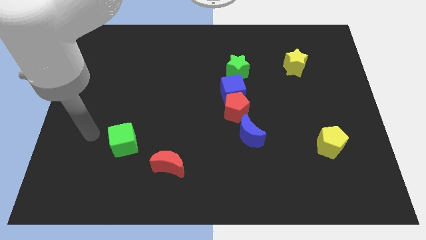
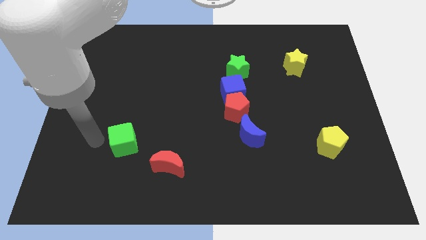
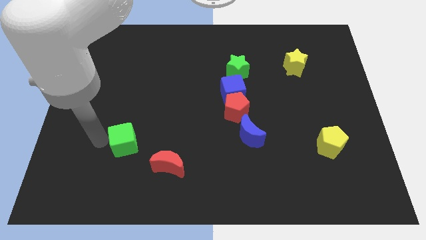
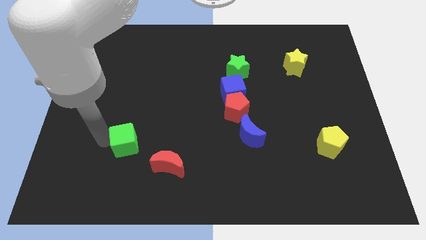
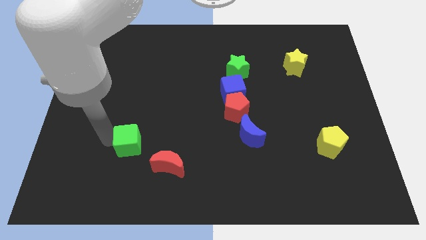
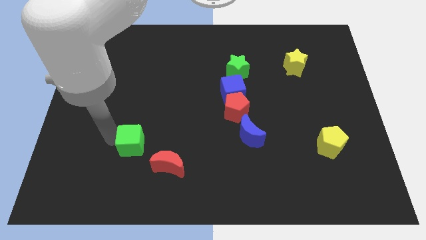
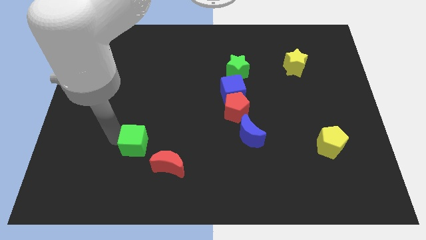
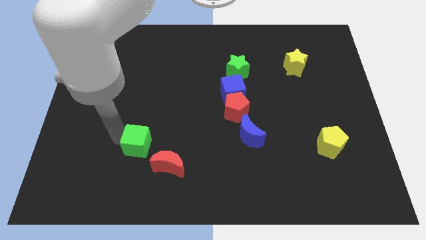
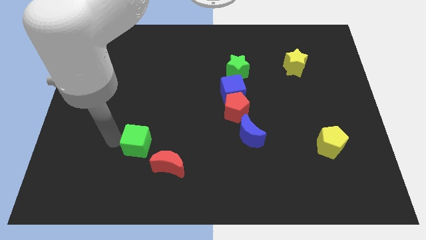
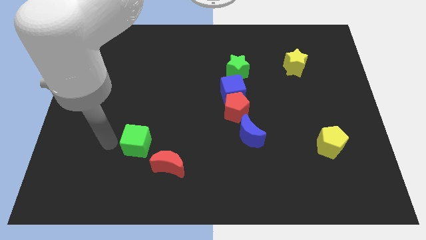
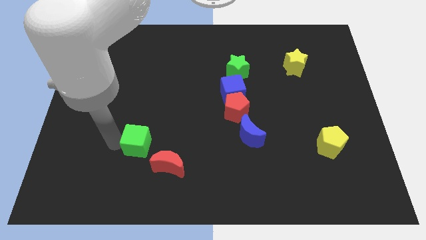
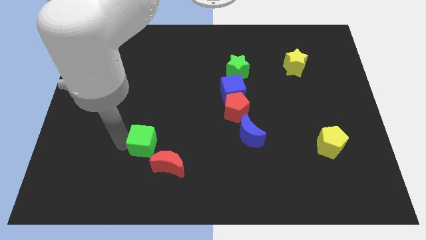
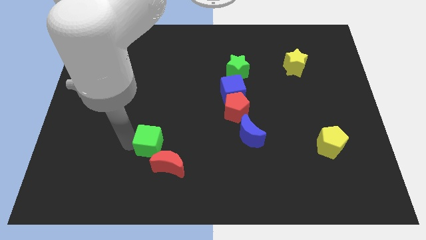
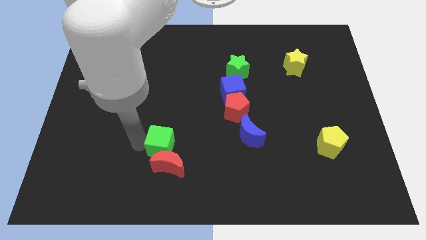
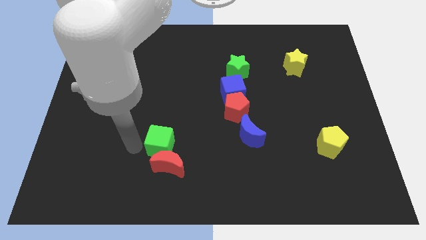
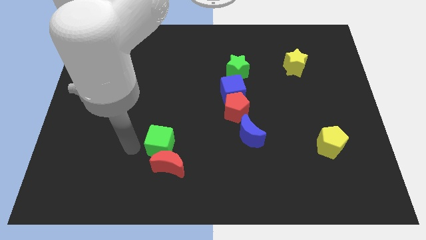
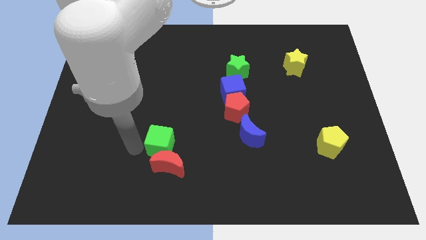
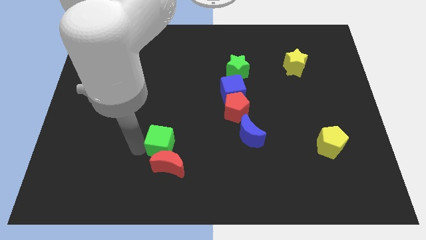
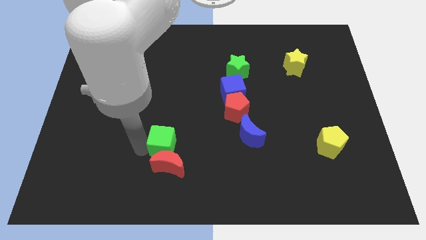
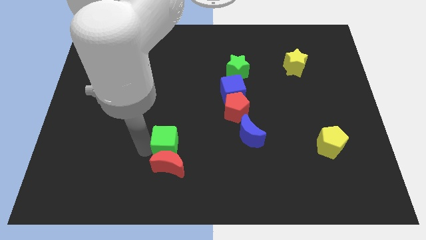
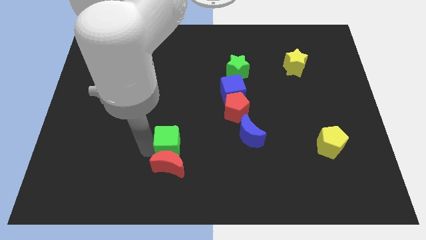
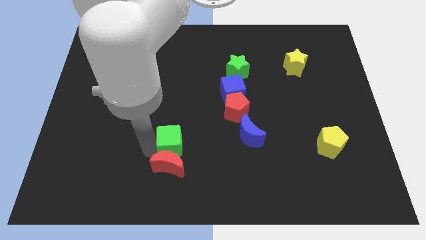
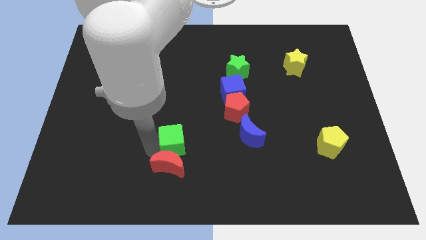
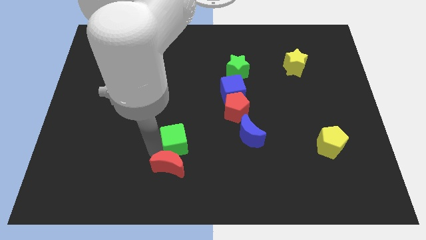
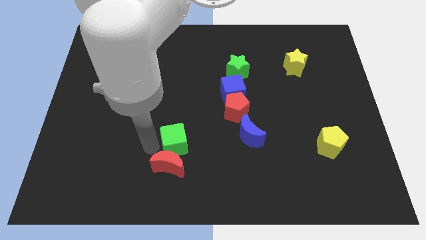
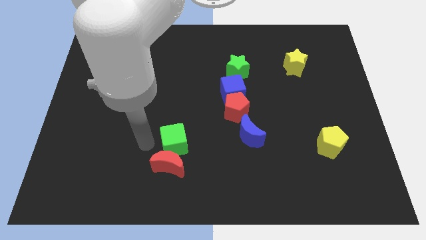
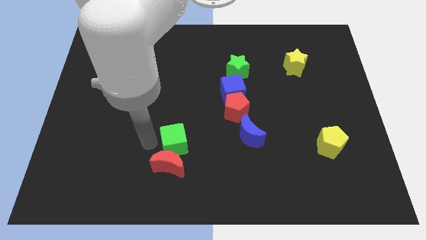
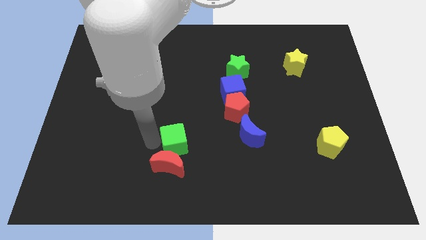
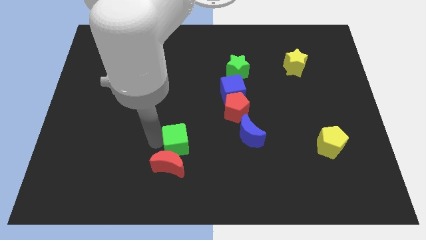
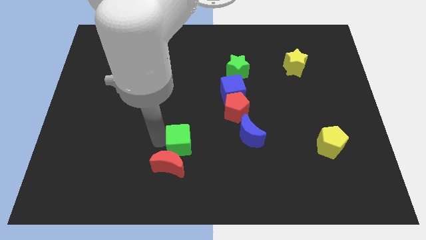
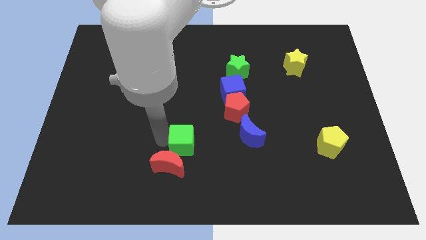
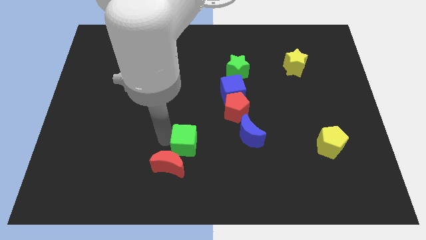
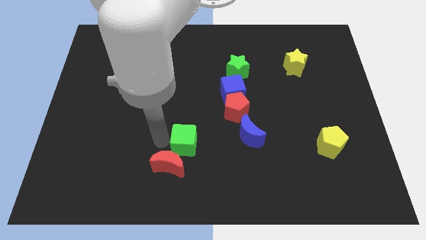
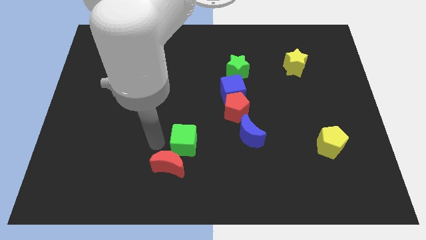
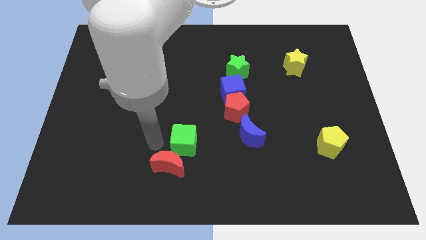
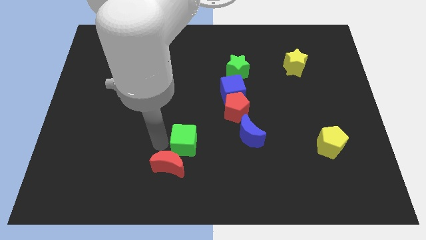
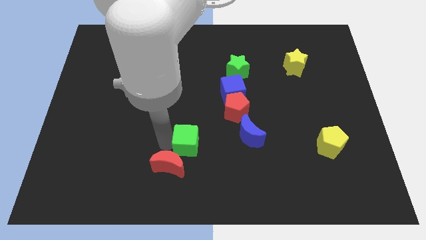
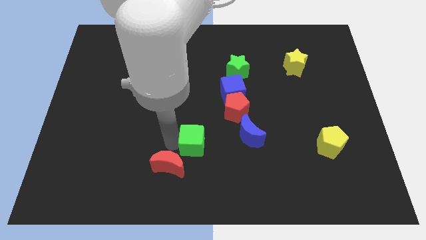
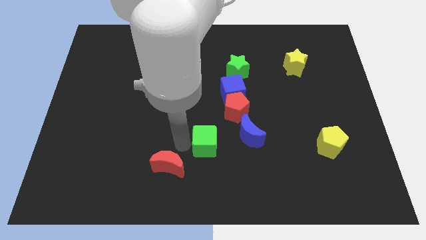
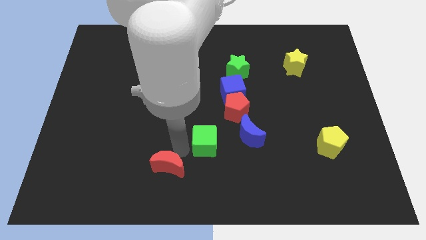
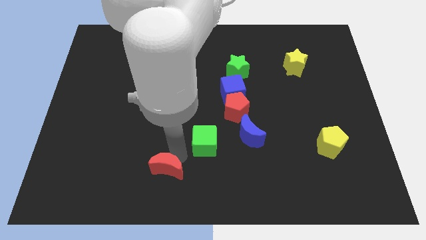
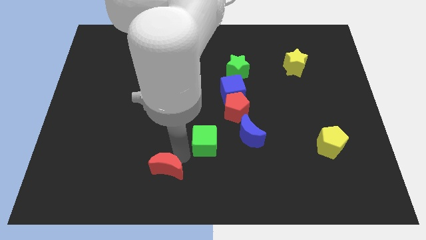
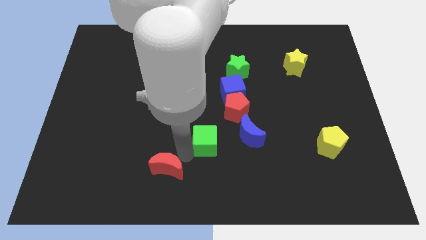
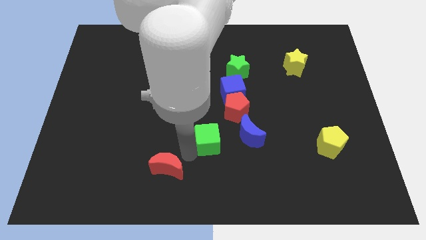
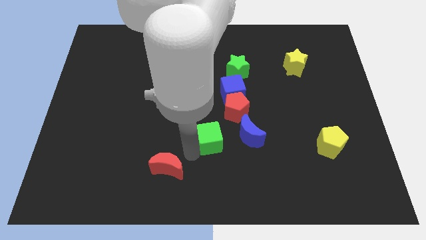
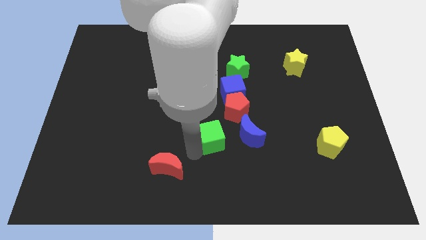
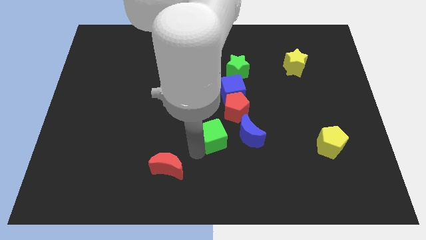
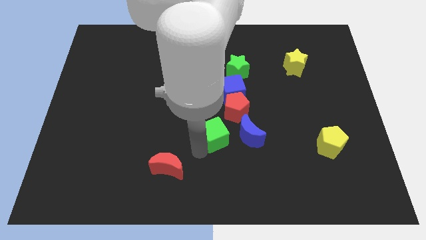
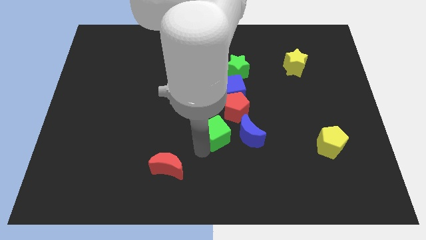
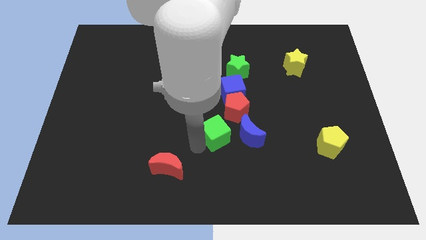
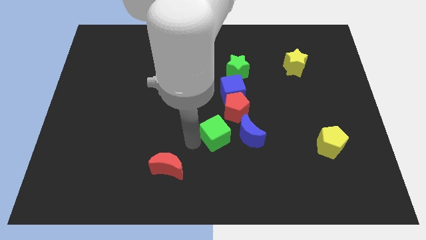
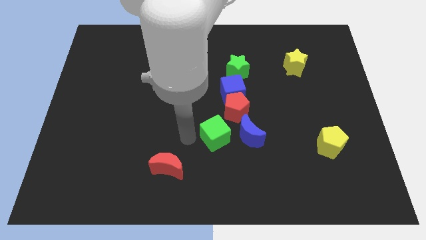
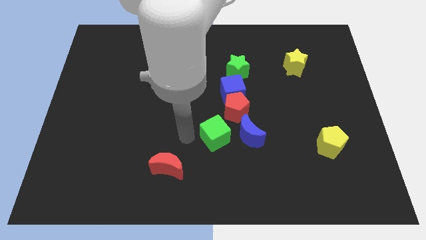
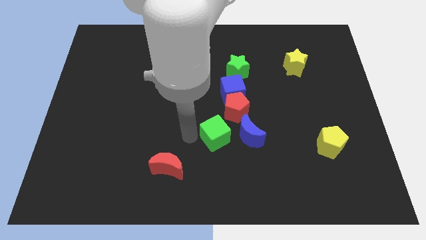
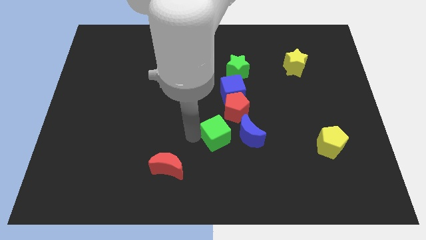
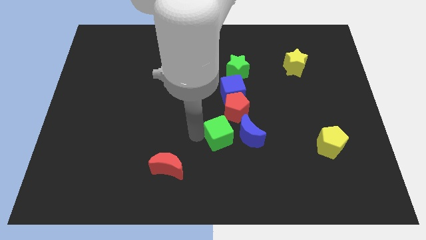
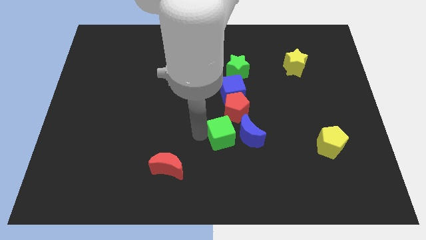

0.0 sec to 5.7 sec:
put the green cube close to the blue moon

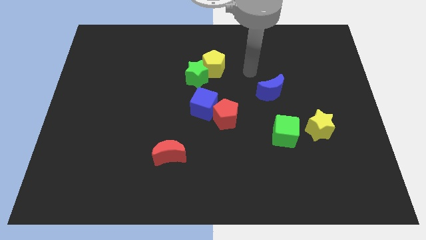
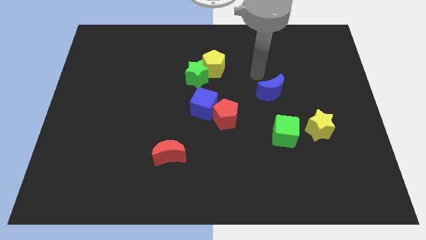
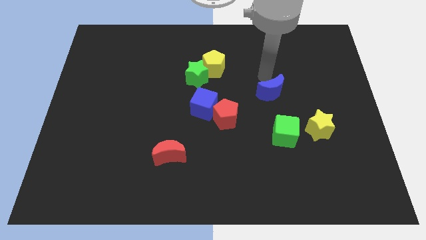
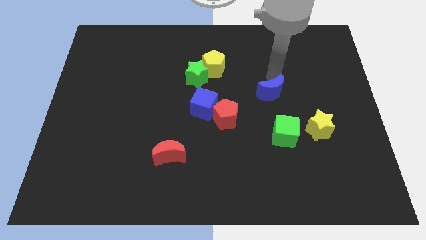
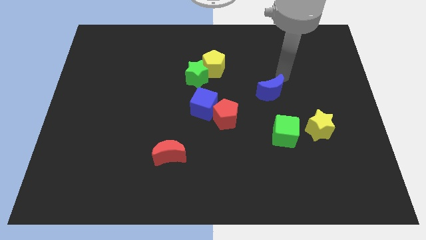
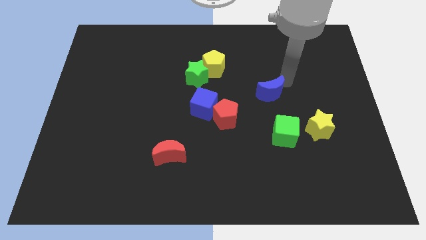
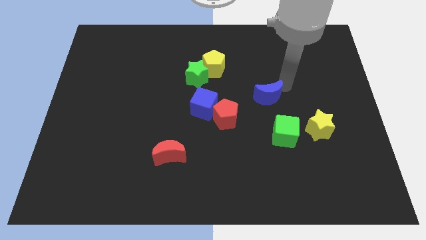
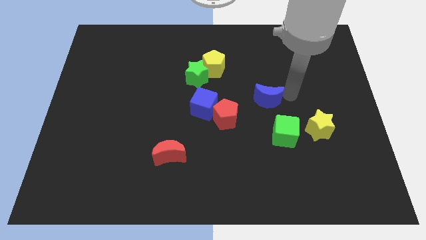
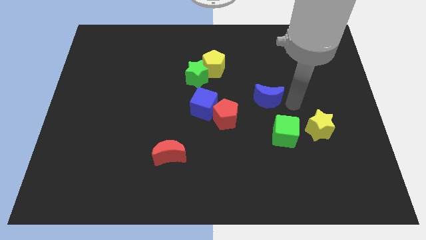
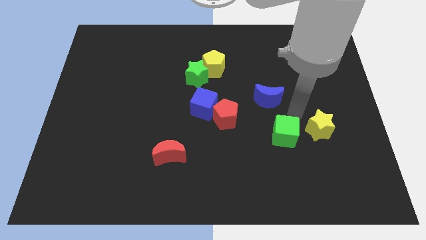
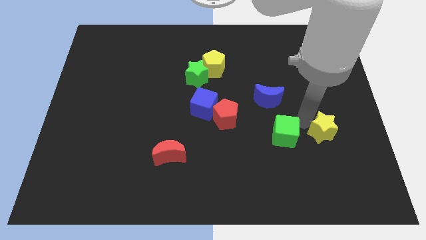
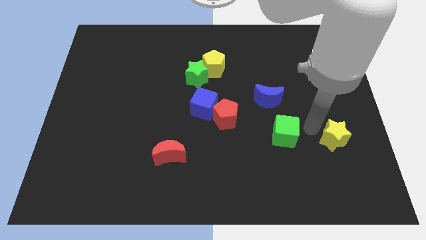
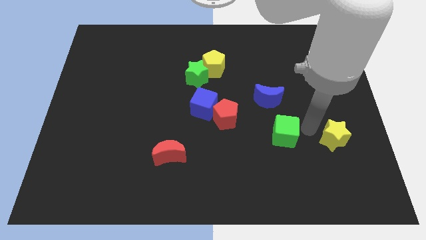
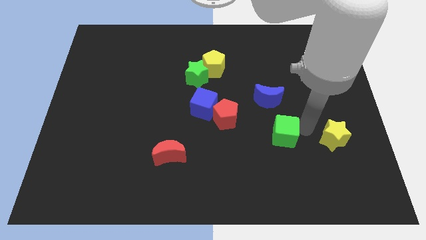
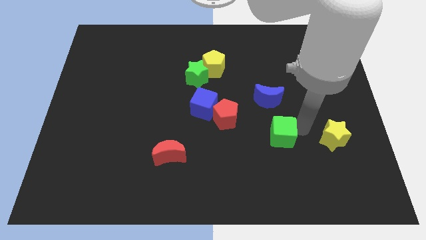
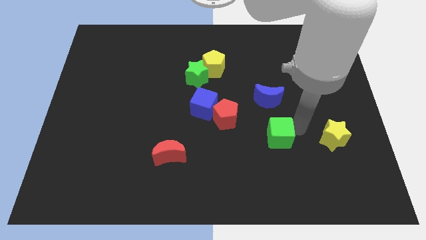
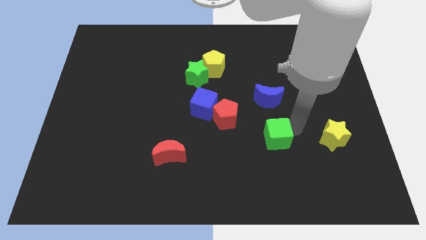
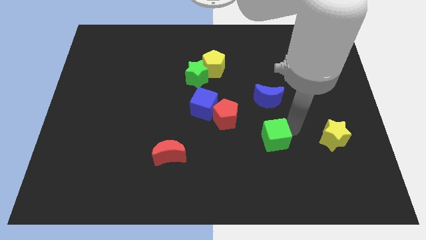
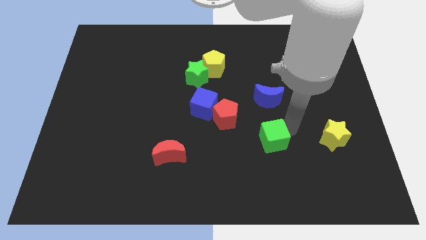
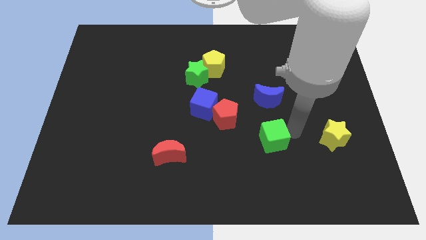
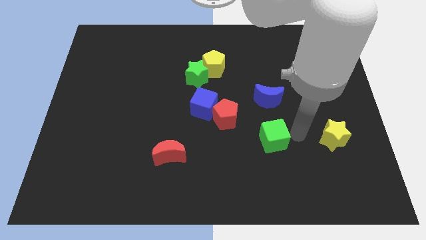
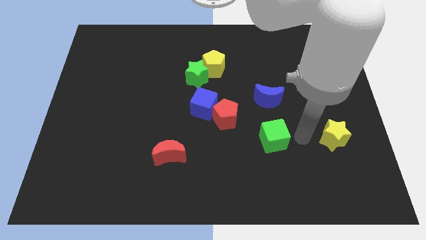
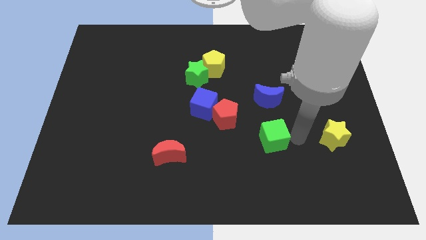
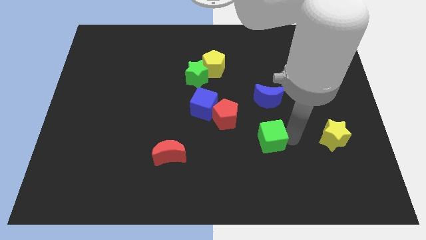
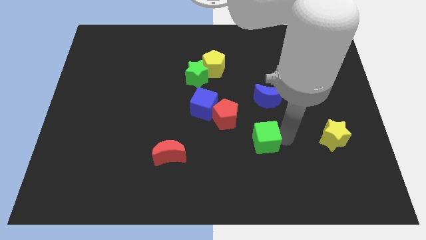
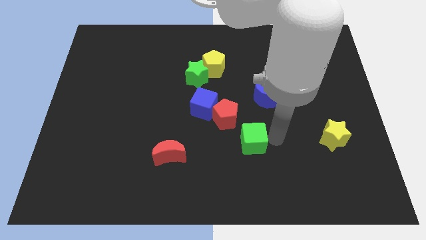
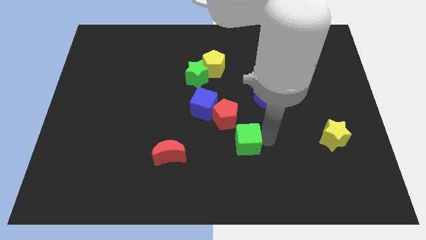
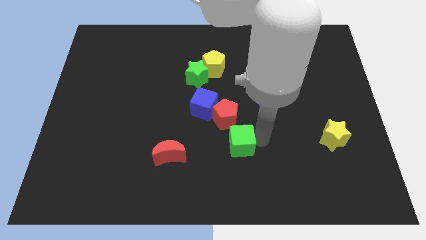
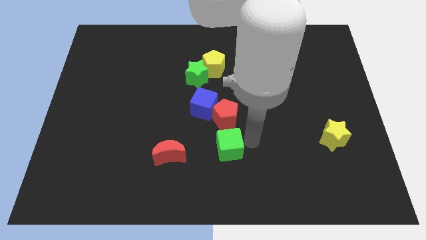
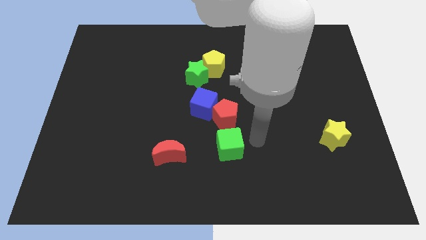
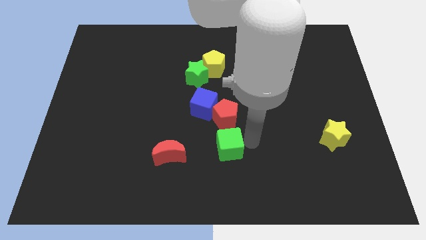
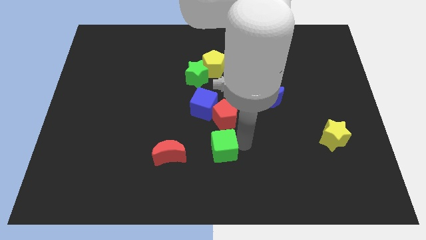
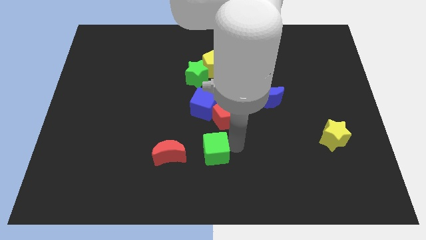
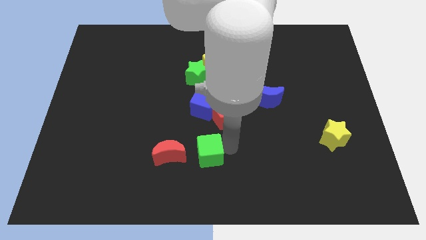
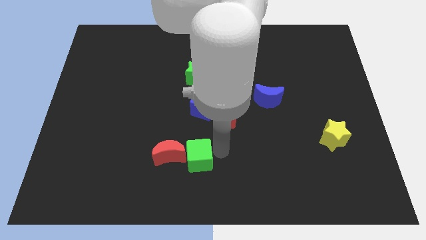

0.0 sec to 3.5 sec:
put the green cube next to the red moon
